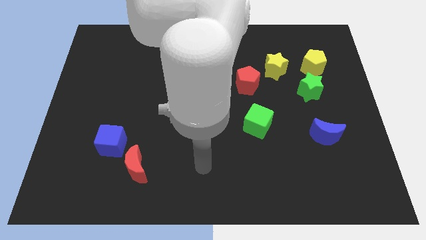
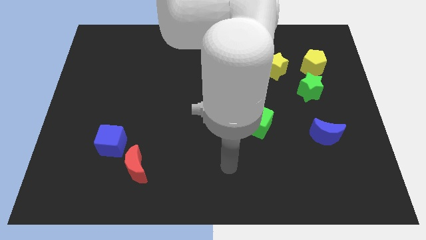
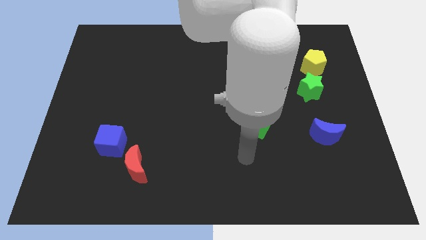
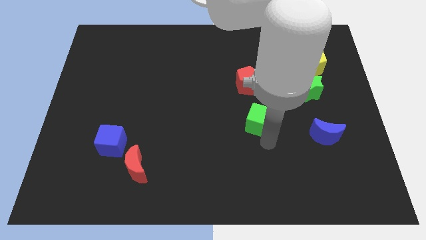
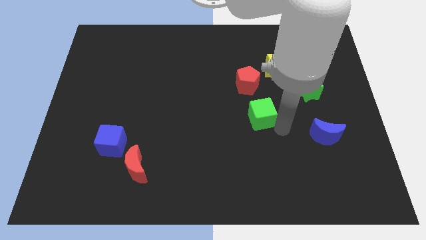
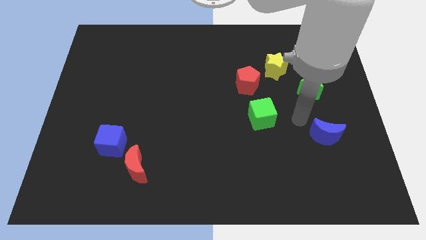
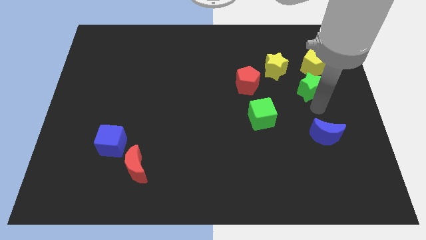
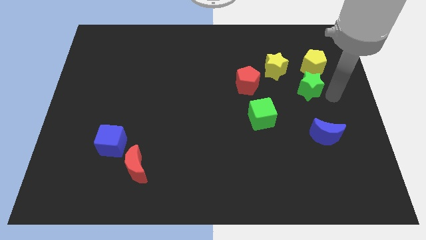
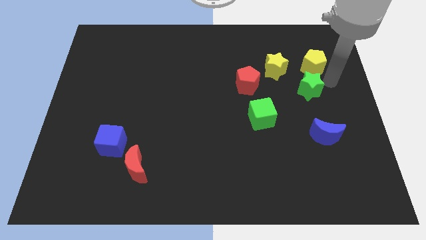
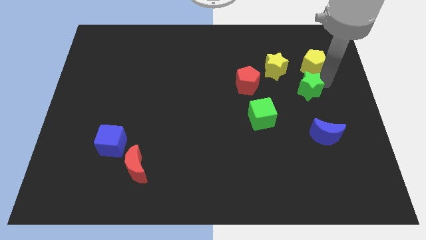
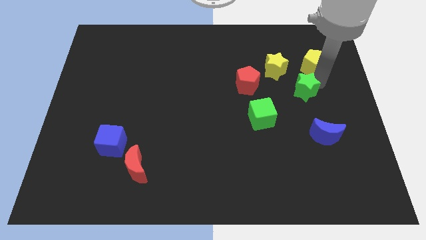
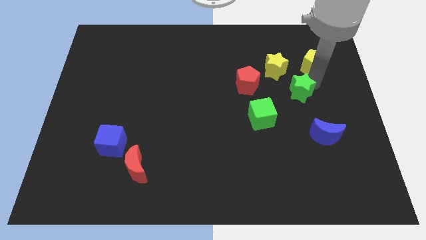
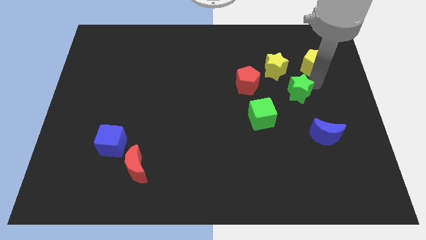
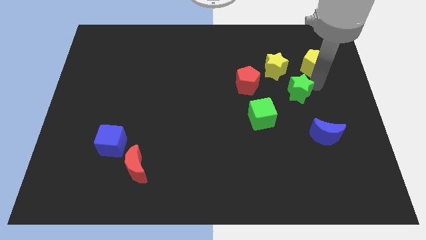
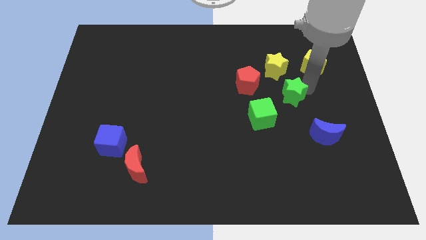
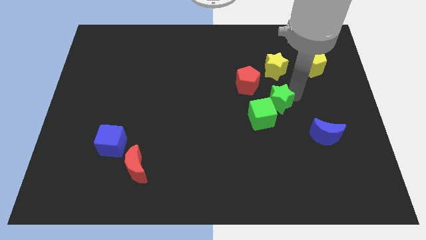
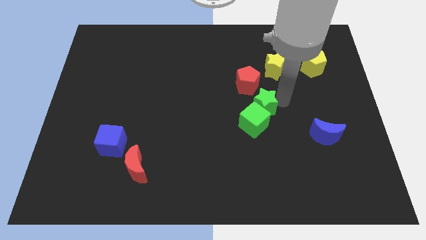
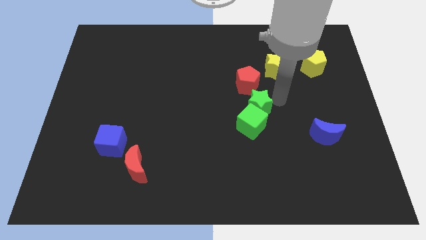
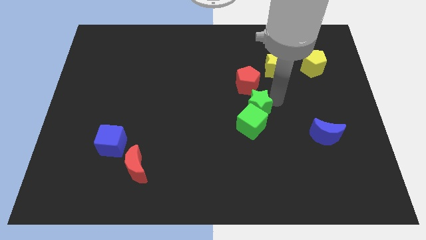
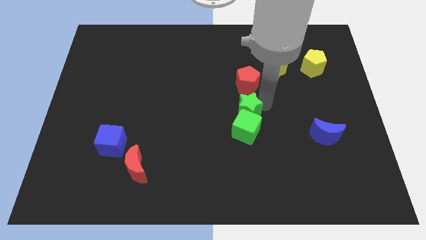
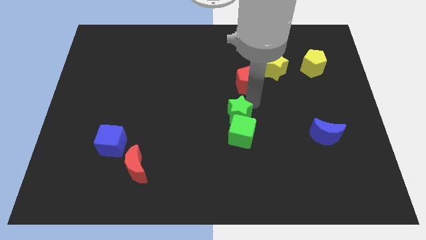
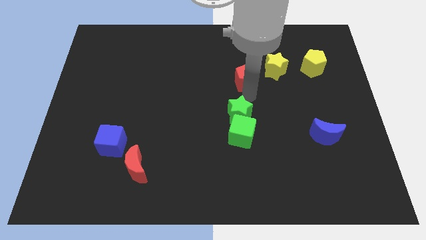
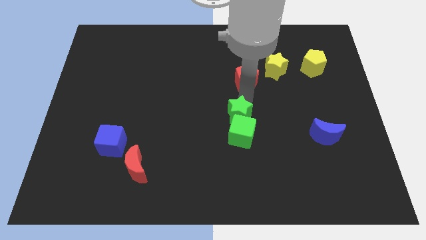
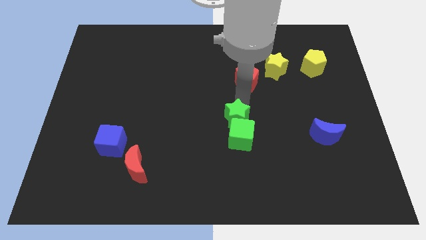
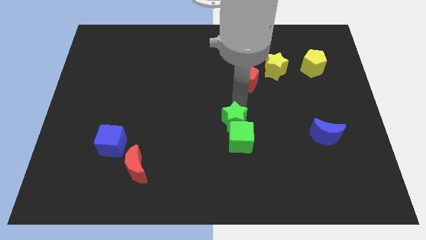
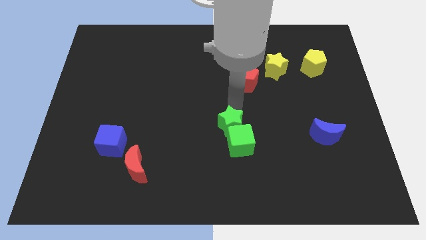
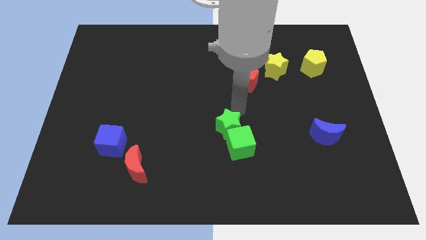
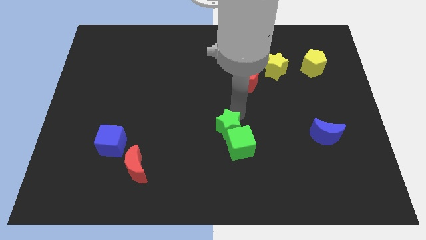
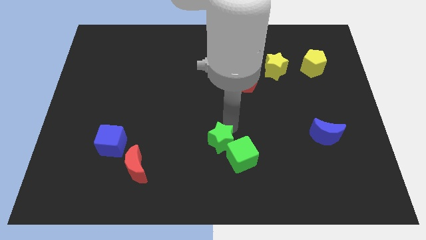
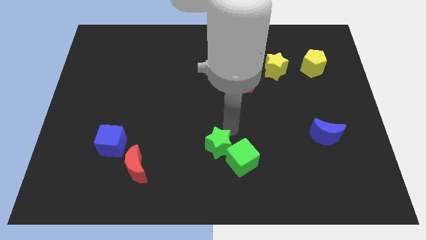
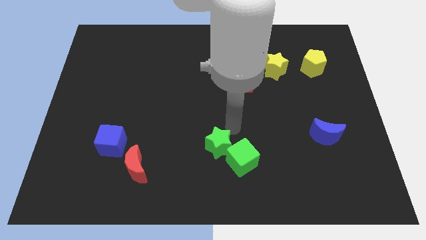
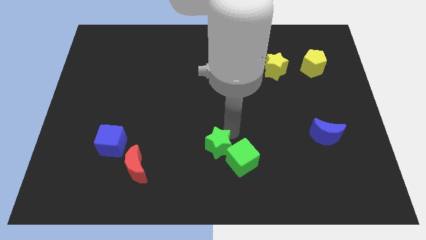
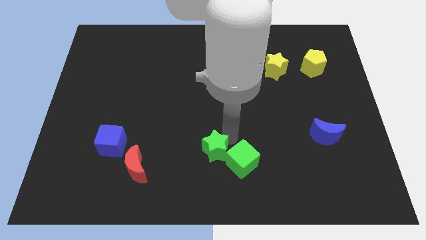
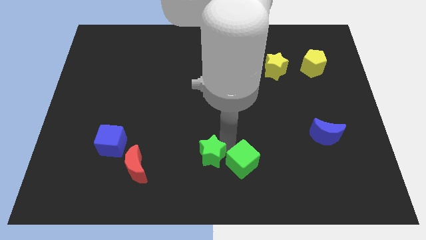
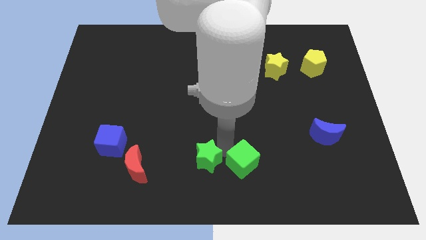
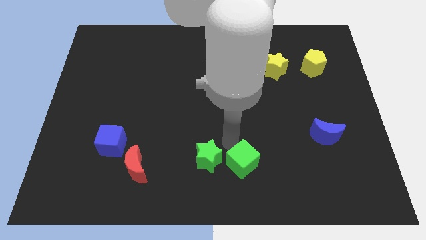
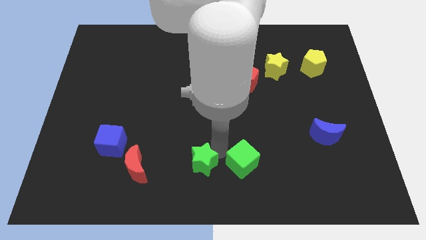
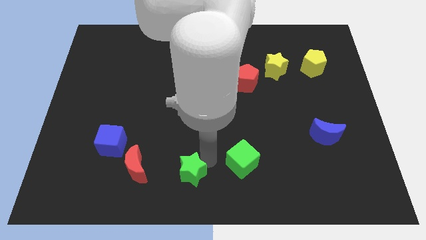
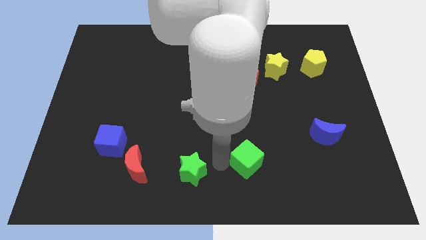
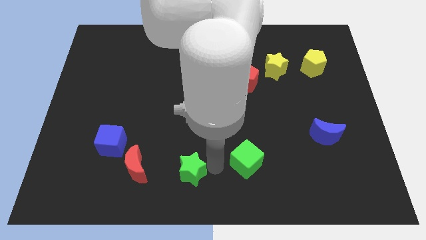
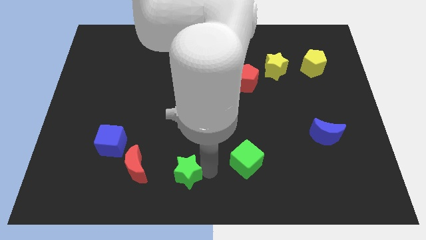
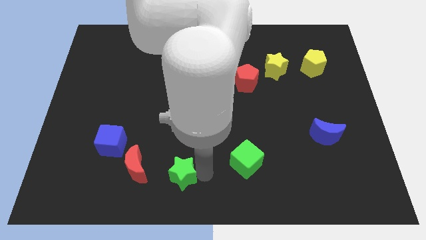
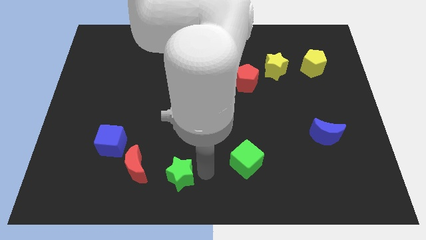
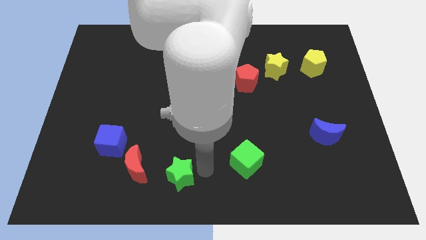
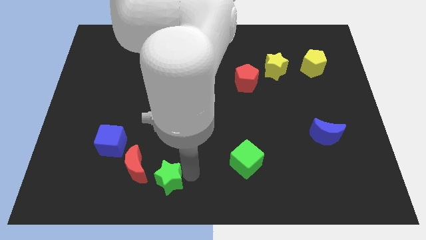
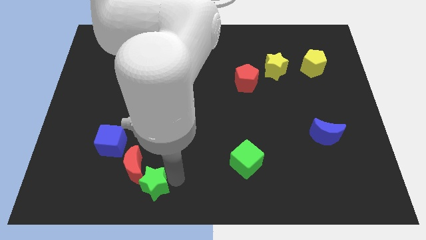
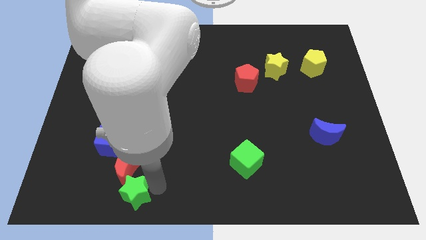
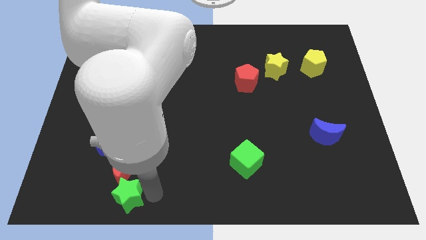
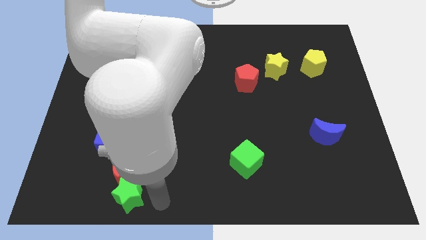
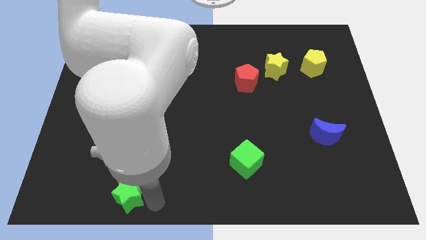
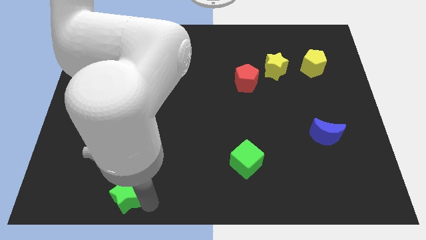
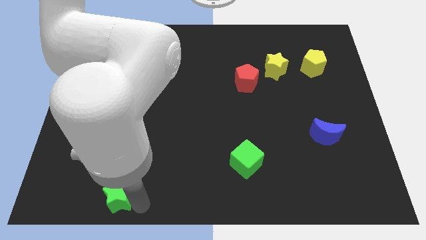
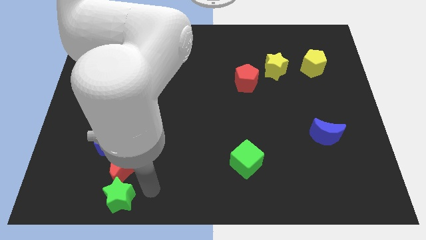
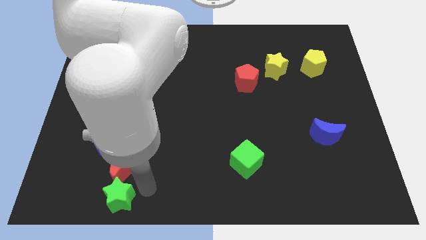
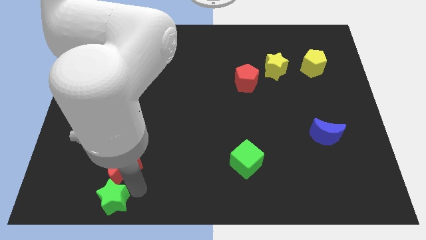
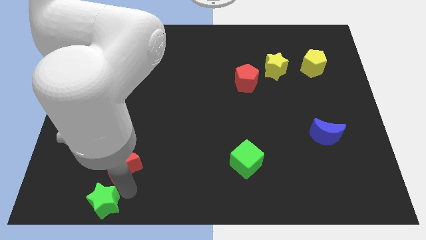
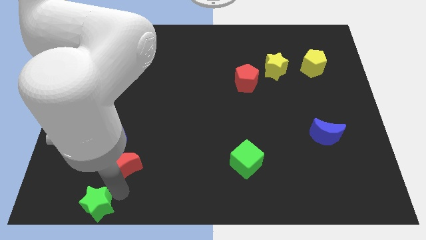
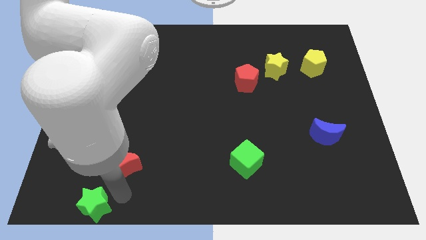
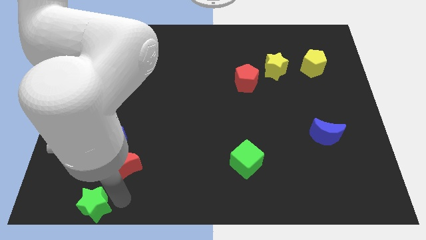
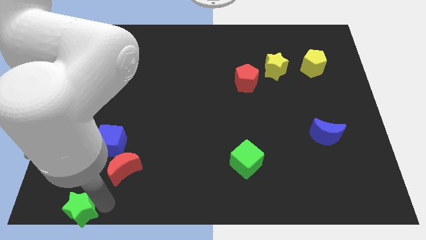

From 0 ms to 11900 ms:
move the green star to the bottom left of the board

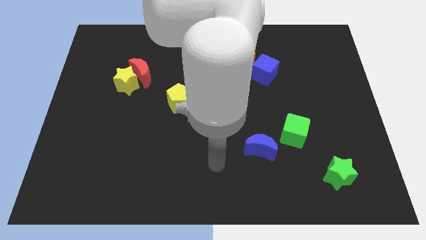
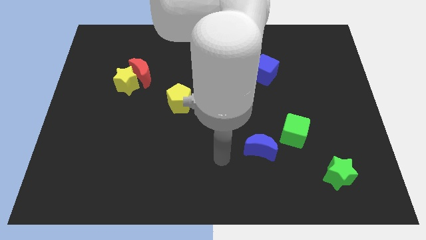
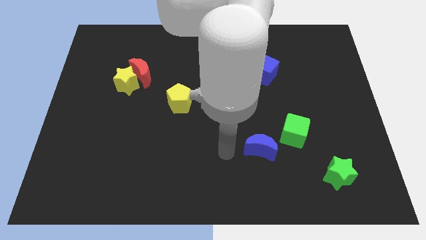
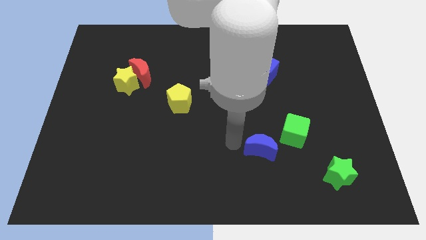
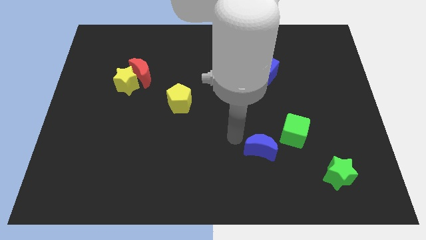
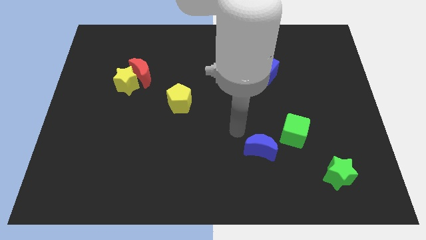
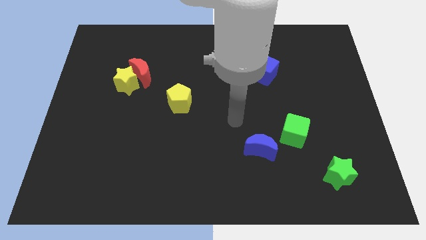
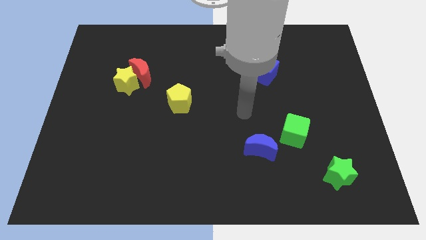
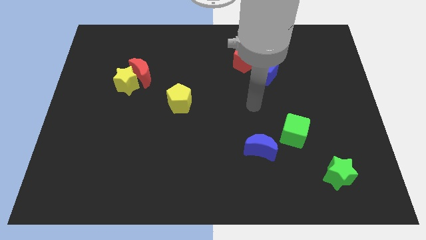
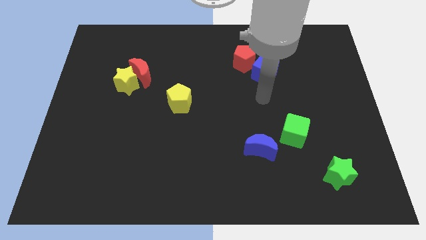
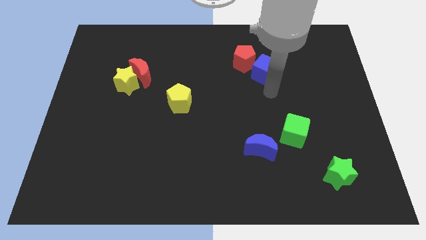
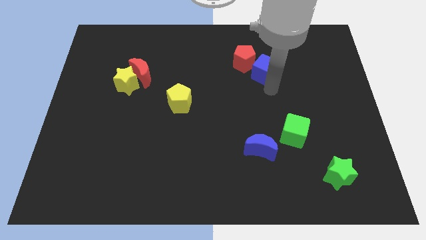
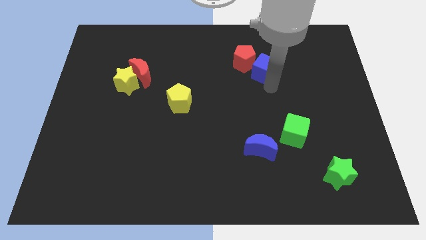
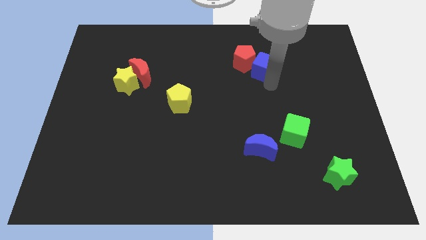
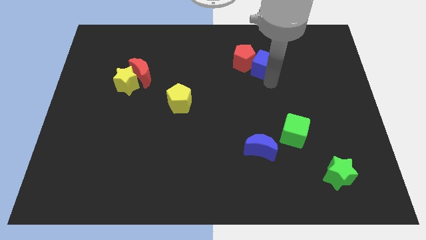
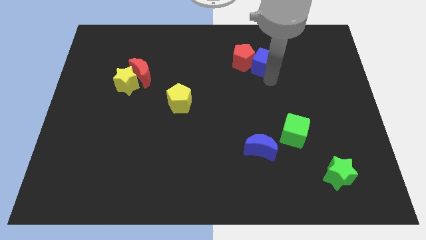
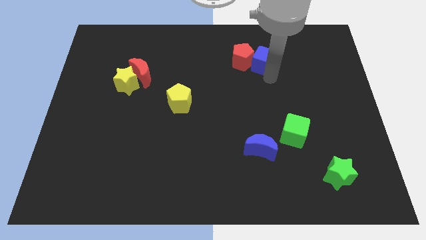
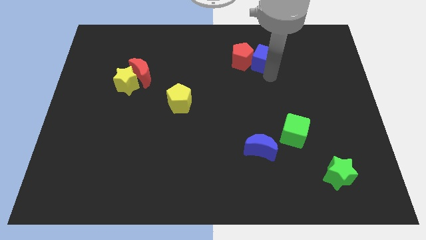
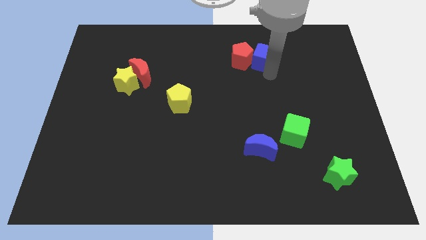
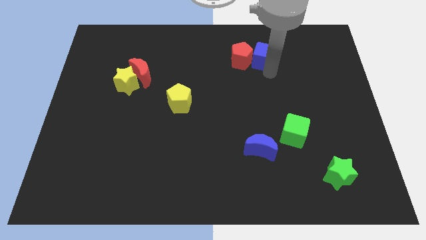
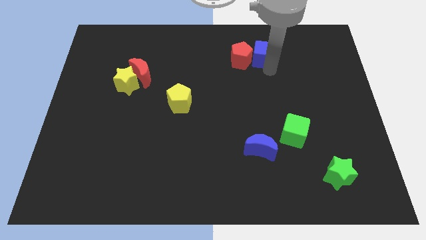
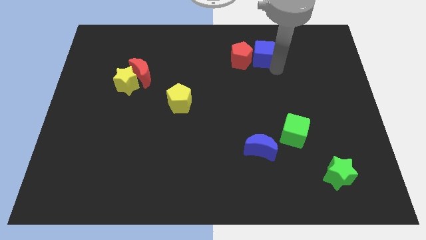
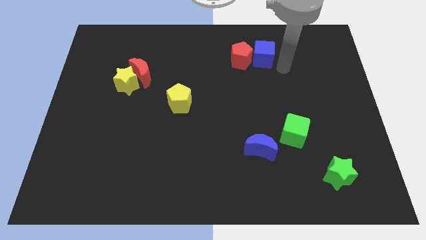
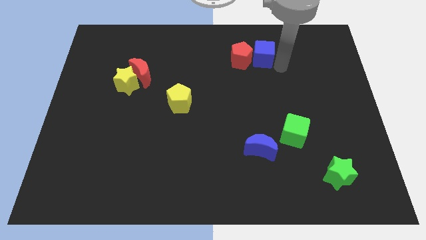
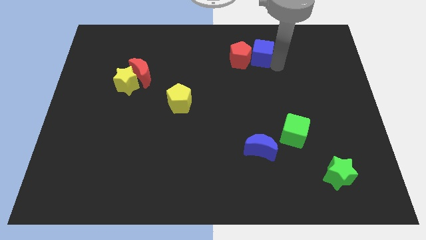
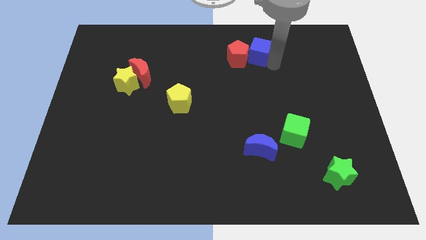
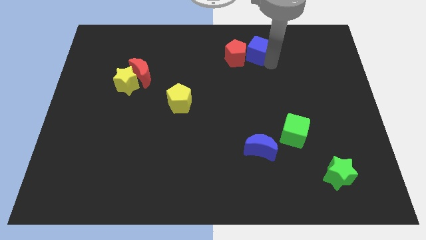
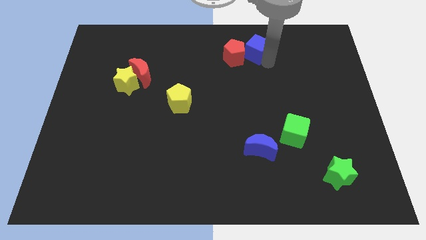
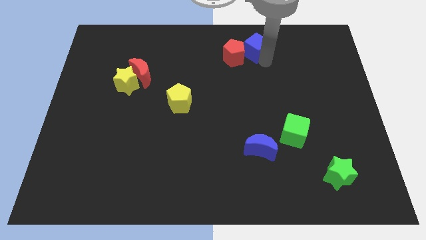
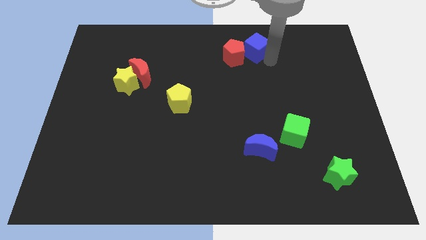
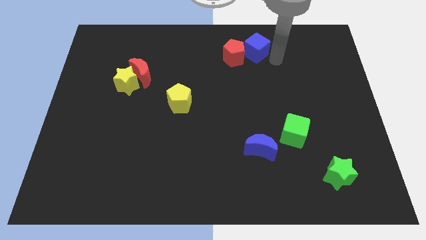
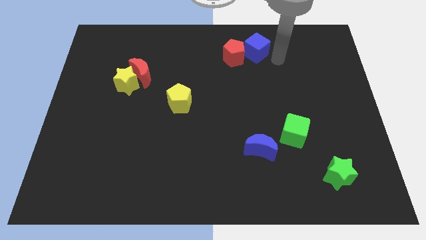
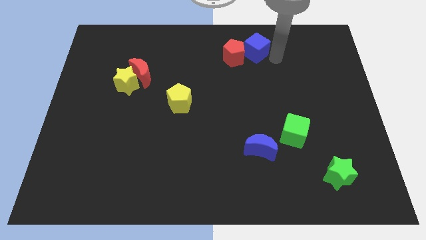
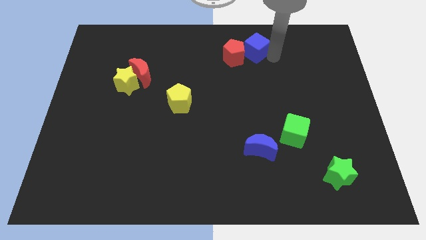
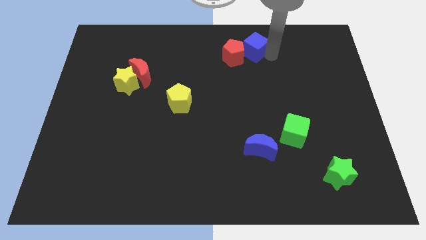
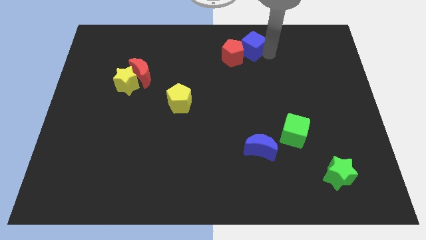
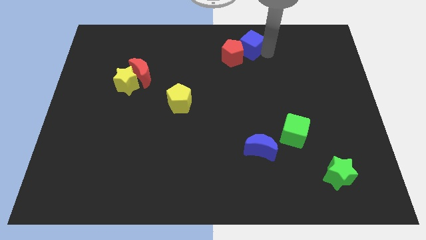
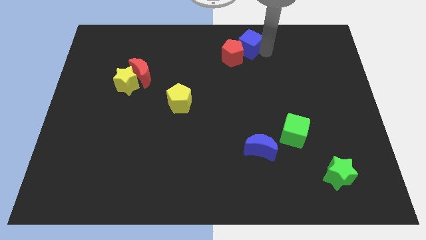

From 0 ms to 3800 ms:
push the blue cube to the top
